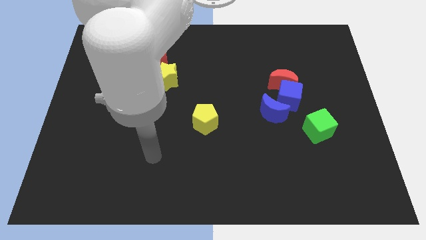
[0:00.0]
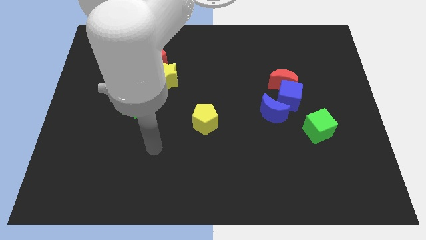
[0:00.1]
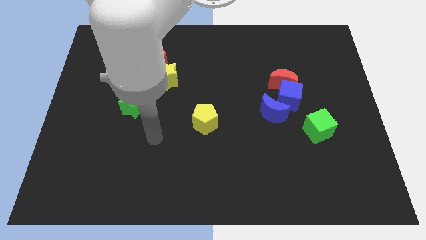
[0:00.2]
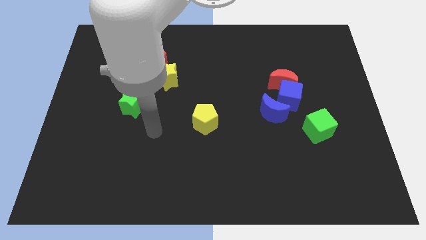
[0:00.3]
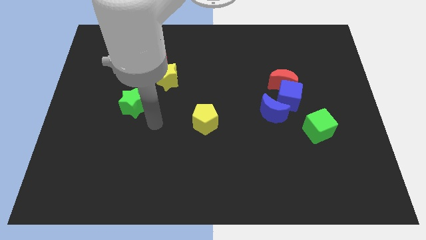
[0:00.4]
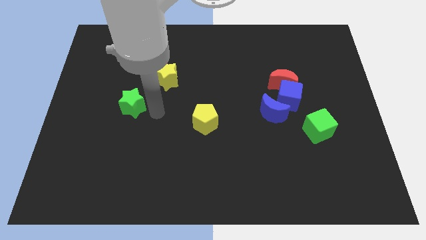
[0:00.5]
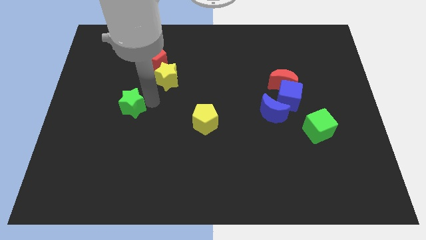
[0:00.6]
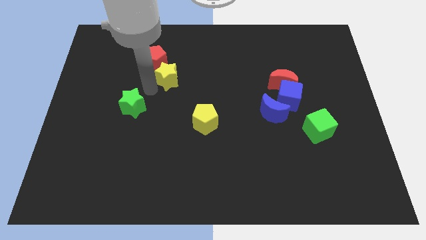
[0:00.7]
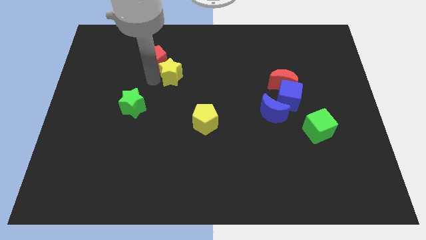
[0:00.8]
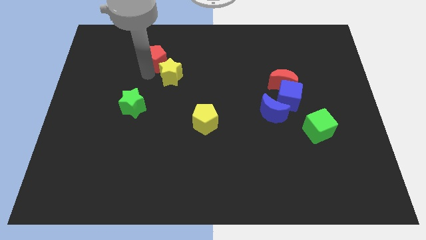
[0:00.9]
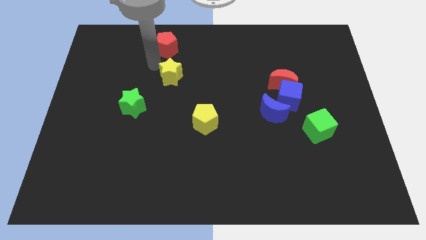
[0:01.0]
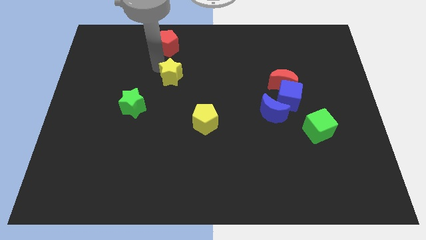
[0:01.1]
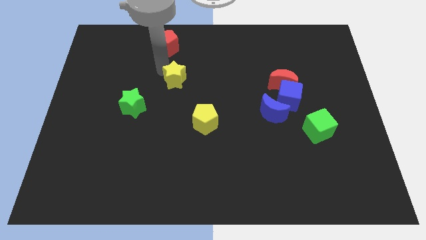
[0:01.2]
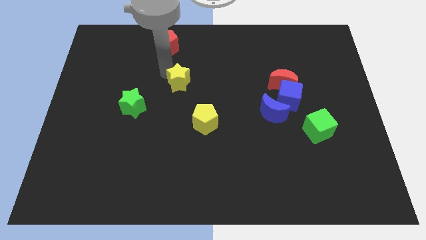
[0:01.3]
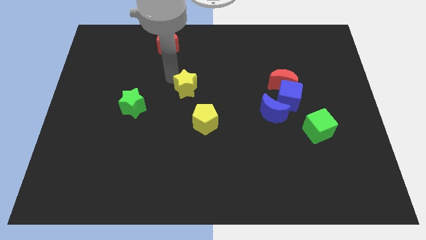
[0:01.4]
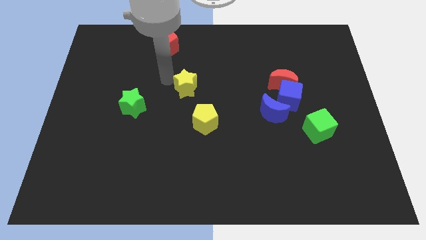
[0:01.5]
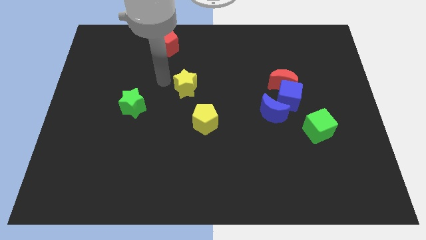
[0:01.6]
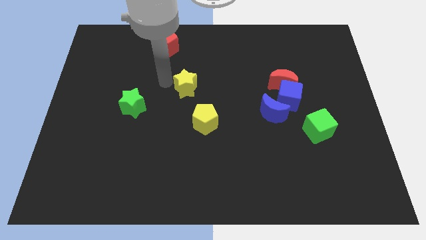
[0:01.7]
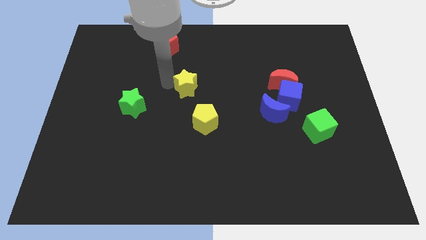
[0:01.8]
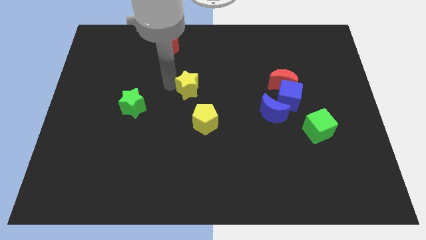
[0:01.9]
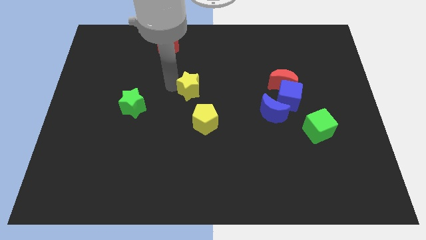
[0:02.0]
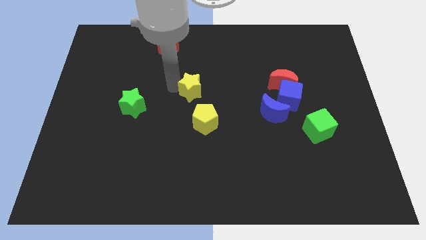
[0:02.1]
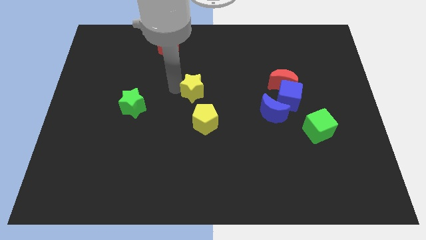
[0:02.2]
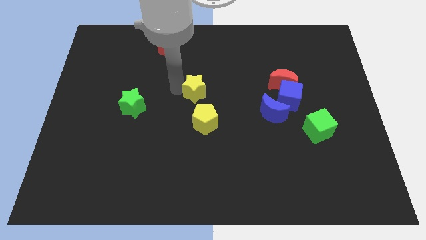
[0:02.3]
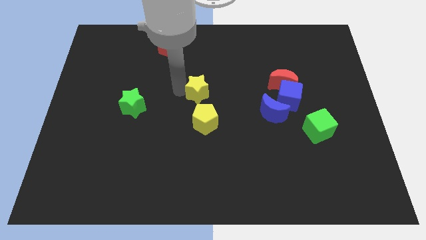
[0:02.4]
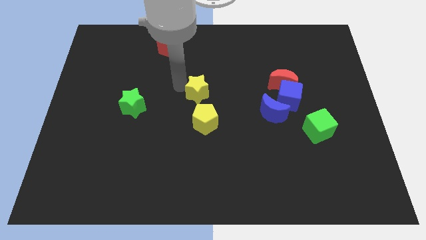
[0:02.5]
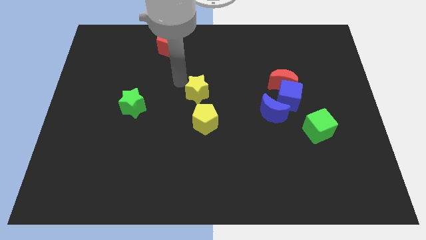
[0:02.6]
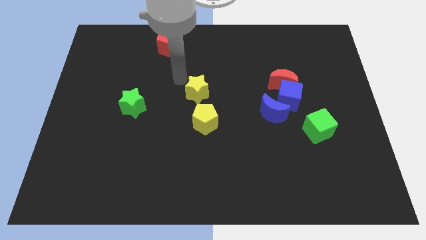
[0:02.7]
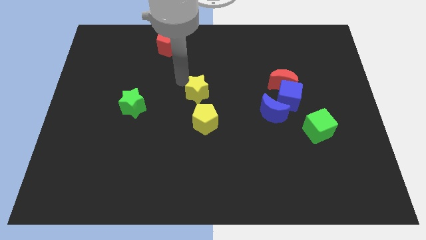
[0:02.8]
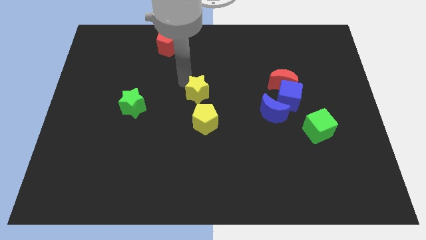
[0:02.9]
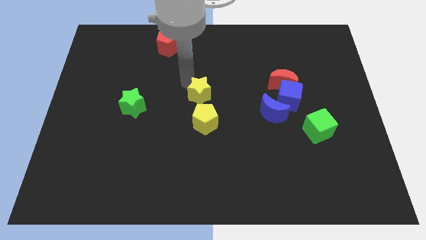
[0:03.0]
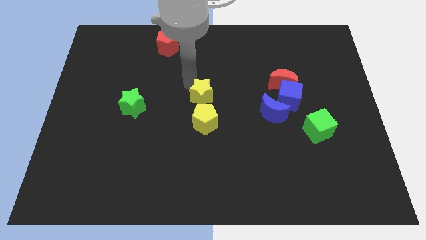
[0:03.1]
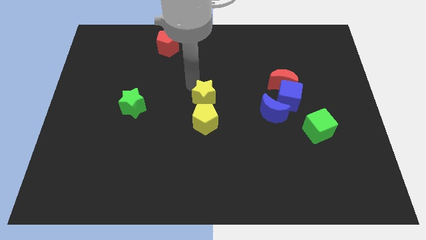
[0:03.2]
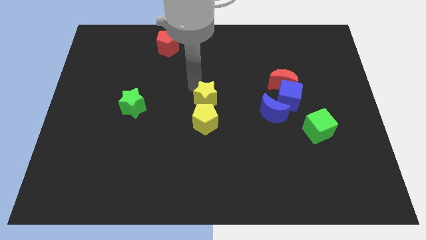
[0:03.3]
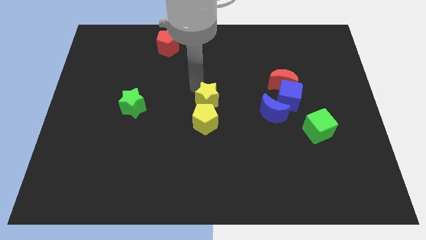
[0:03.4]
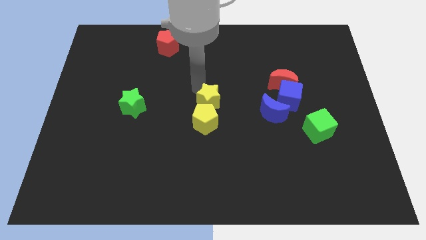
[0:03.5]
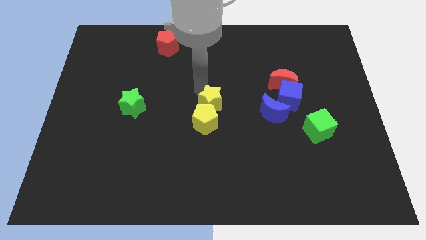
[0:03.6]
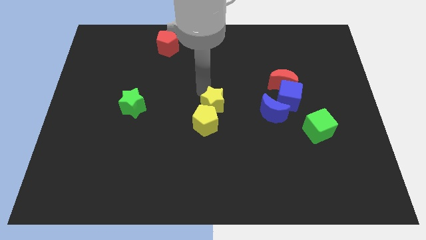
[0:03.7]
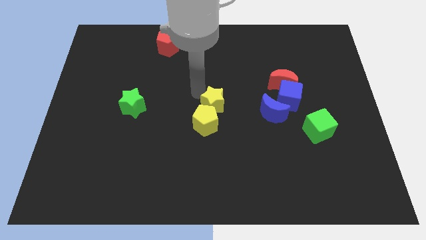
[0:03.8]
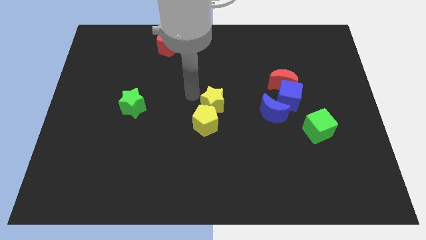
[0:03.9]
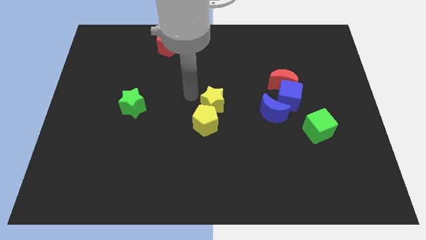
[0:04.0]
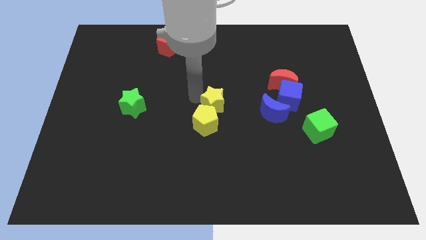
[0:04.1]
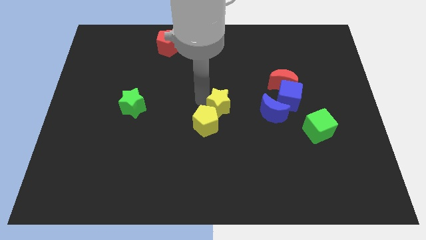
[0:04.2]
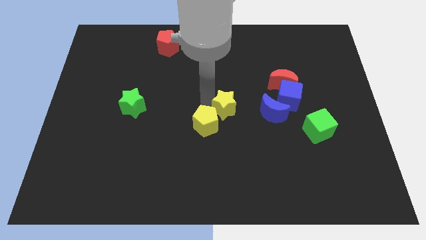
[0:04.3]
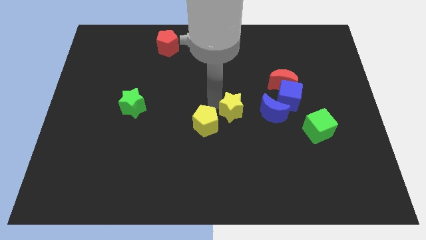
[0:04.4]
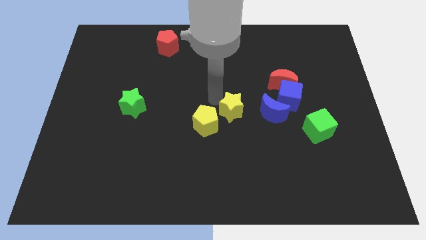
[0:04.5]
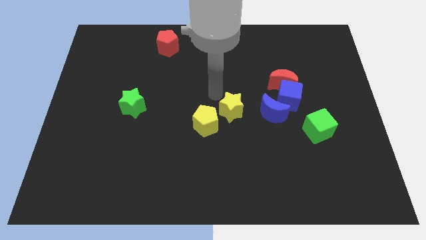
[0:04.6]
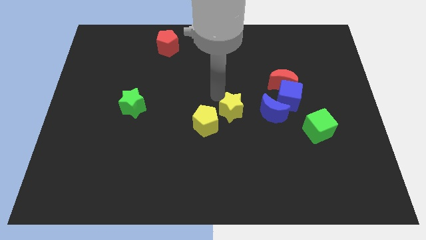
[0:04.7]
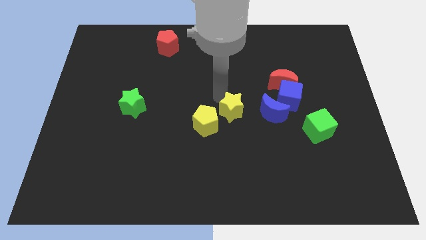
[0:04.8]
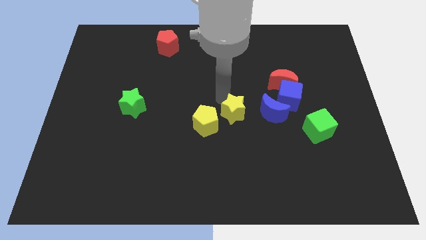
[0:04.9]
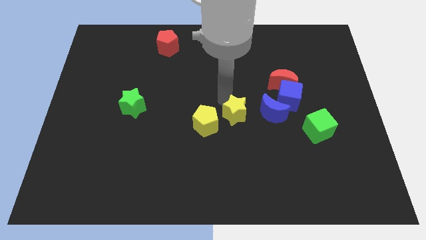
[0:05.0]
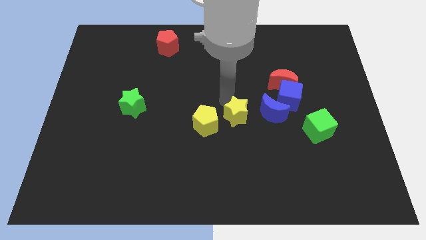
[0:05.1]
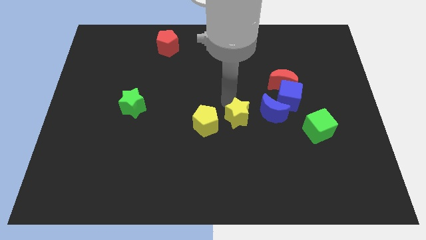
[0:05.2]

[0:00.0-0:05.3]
move the yellow star down and then to the right

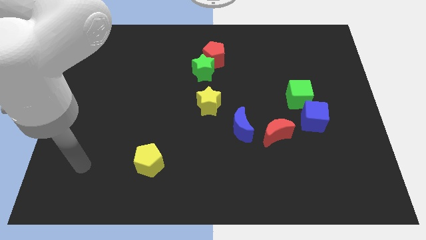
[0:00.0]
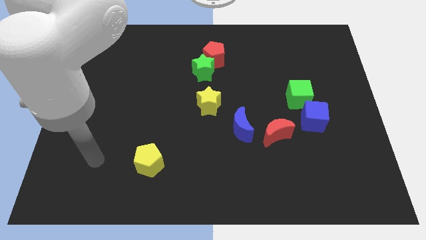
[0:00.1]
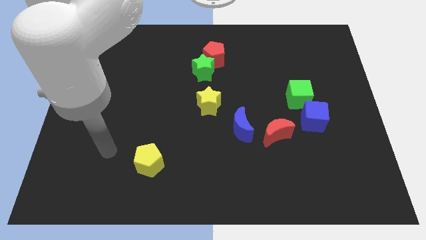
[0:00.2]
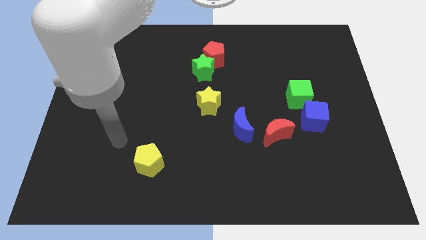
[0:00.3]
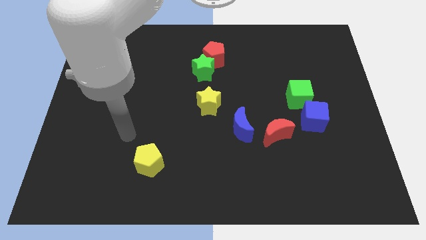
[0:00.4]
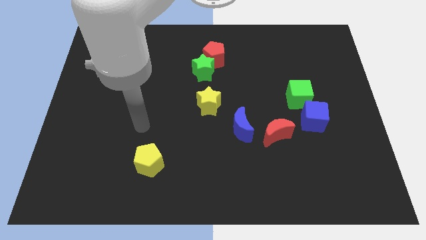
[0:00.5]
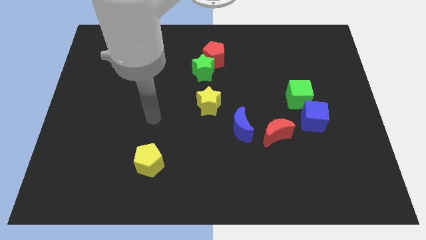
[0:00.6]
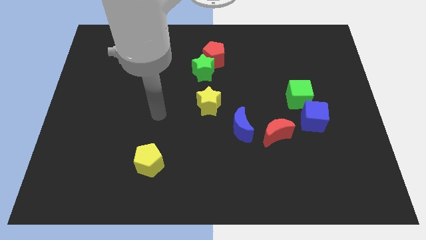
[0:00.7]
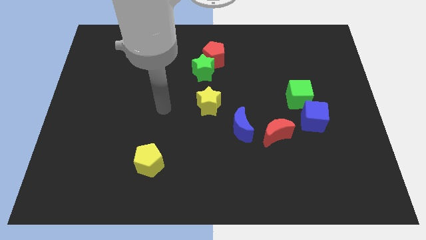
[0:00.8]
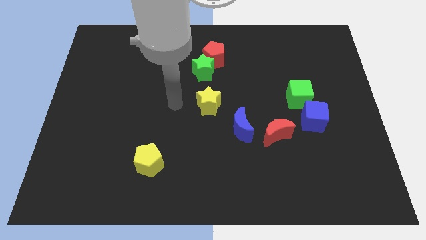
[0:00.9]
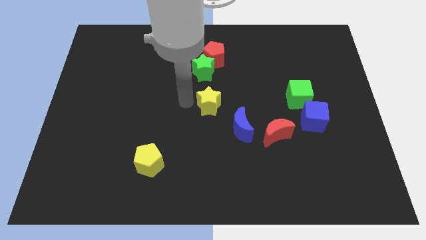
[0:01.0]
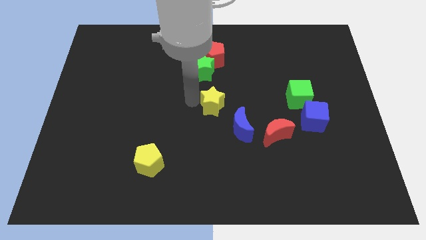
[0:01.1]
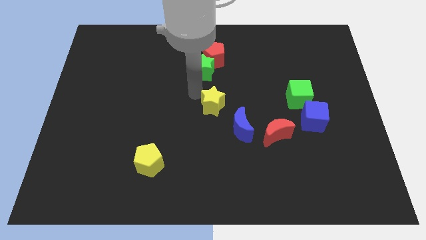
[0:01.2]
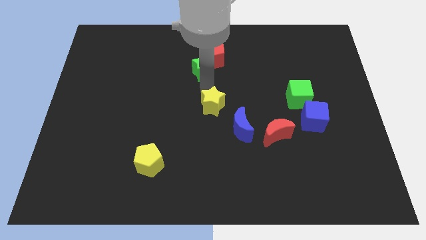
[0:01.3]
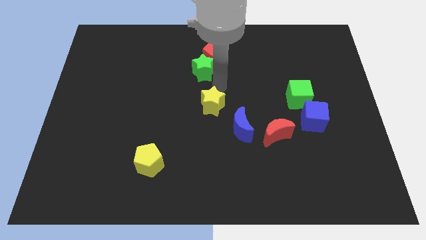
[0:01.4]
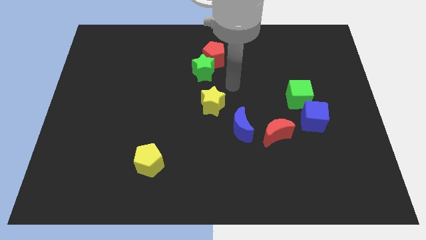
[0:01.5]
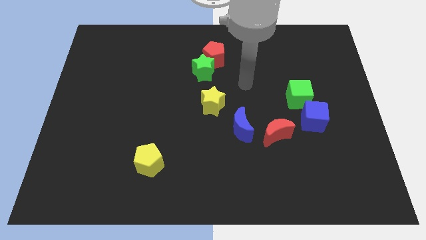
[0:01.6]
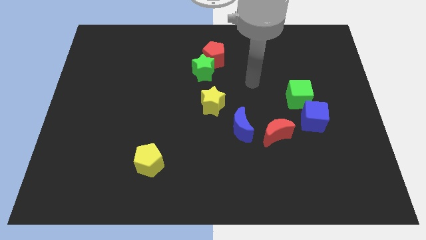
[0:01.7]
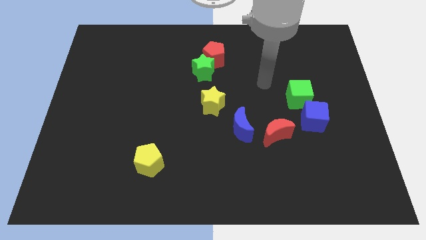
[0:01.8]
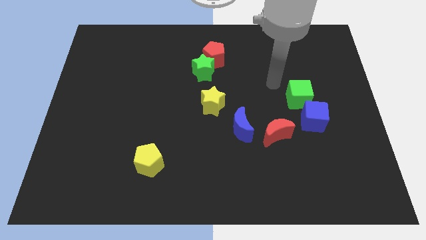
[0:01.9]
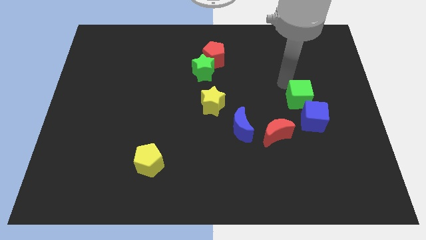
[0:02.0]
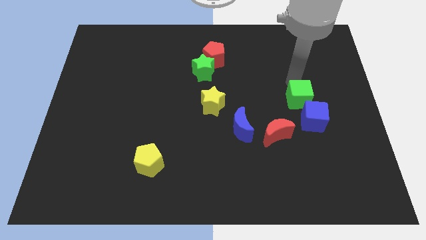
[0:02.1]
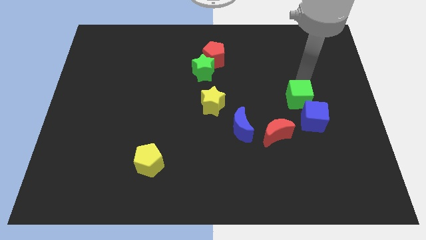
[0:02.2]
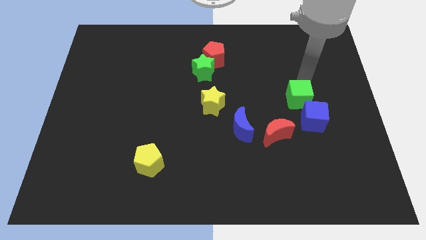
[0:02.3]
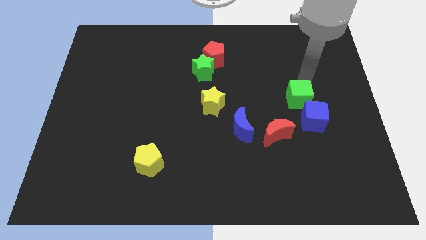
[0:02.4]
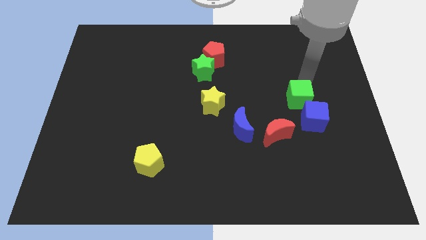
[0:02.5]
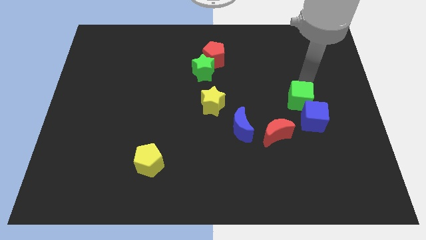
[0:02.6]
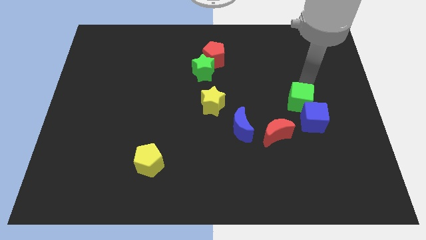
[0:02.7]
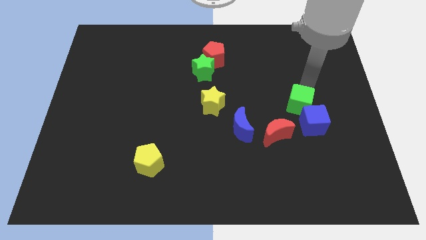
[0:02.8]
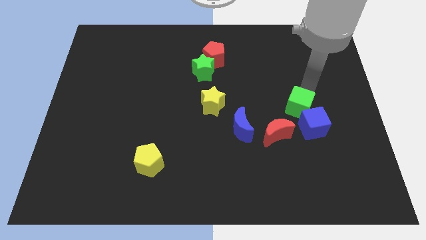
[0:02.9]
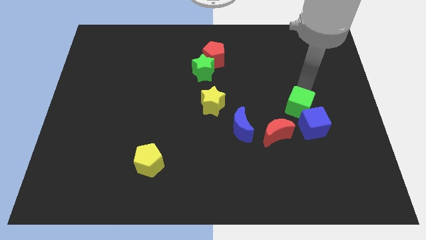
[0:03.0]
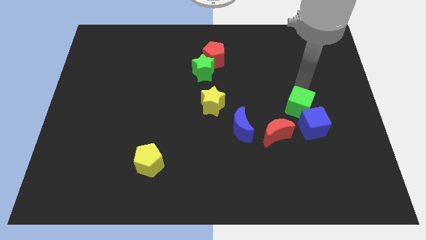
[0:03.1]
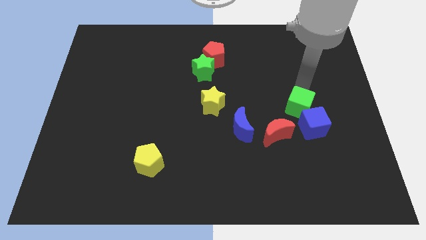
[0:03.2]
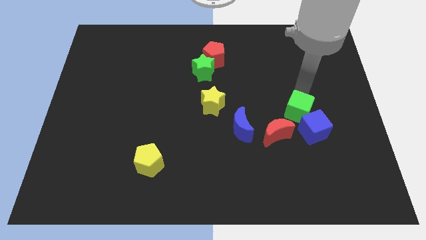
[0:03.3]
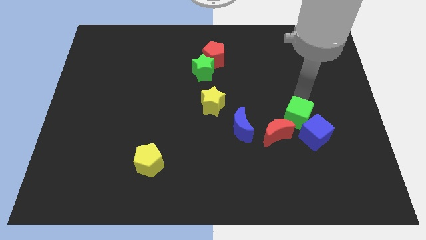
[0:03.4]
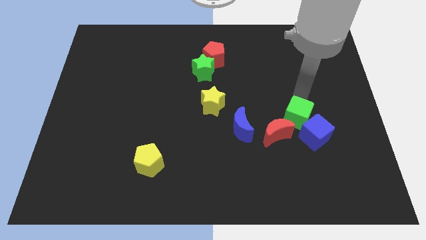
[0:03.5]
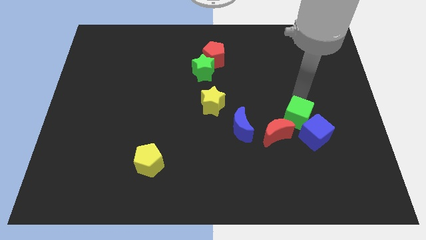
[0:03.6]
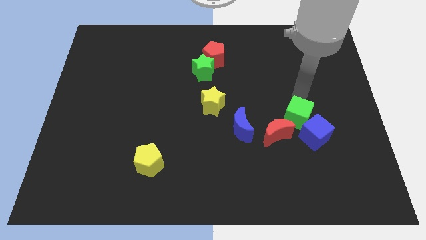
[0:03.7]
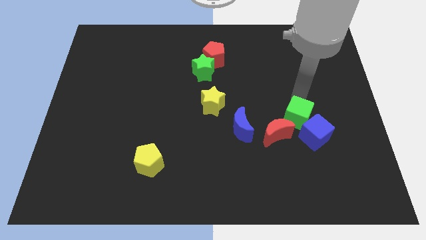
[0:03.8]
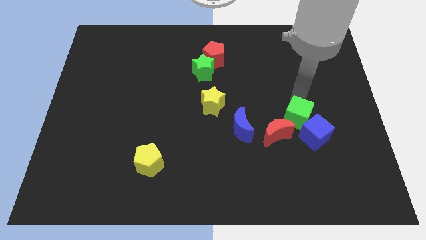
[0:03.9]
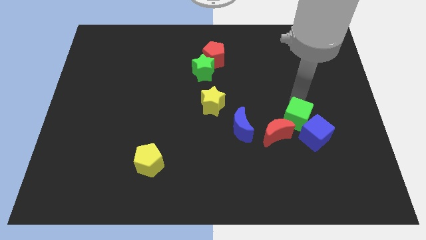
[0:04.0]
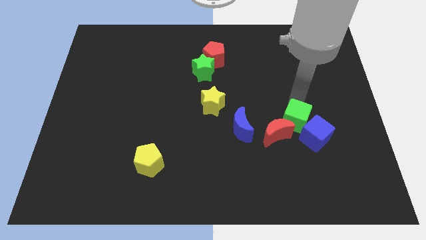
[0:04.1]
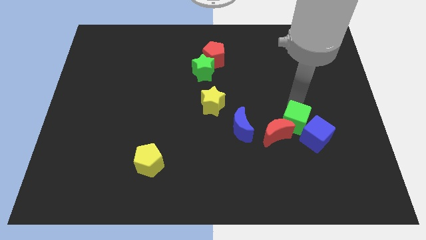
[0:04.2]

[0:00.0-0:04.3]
slightly slide the green cube down
